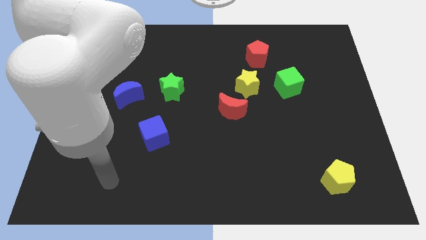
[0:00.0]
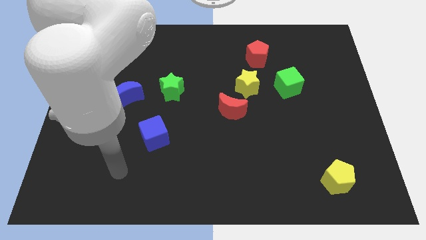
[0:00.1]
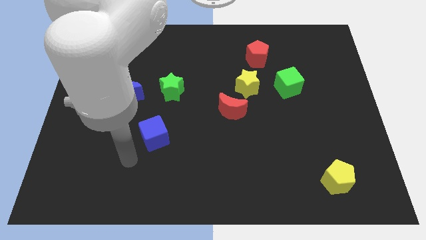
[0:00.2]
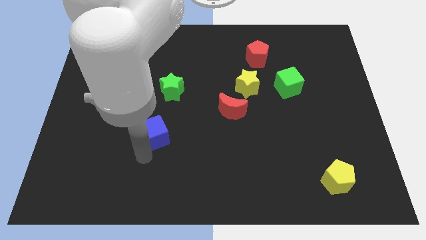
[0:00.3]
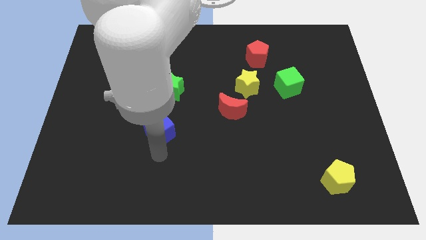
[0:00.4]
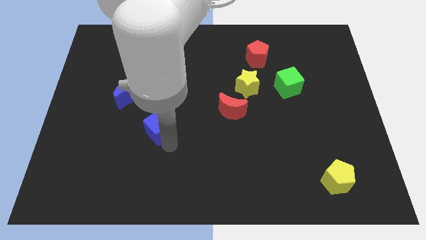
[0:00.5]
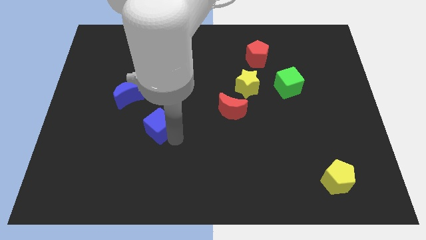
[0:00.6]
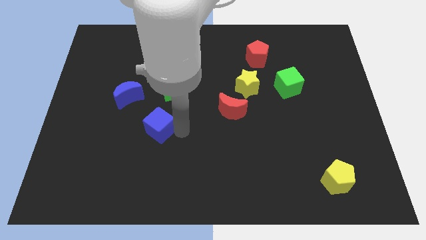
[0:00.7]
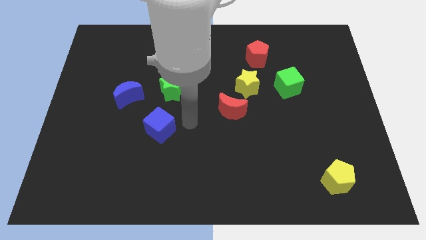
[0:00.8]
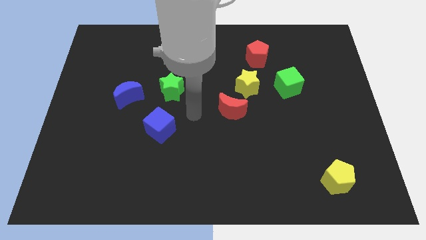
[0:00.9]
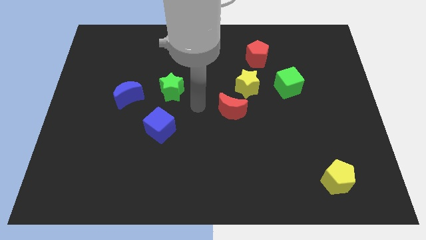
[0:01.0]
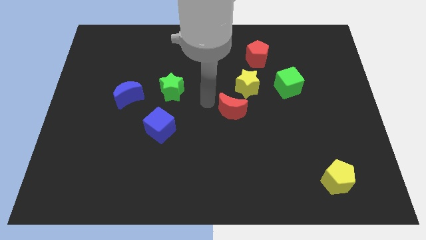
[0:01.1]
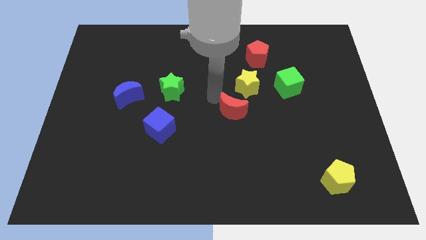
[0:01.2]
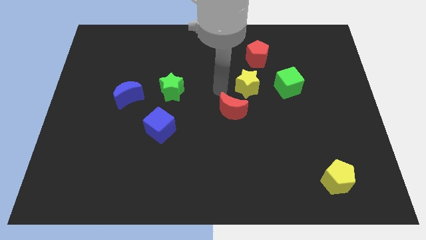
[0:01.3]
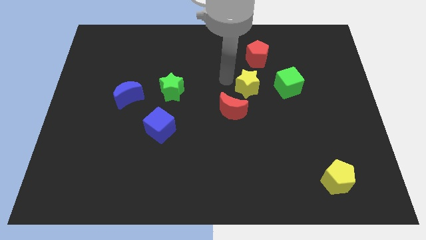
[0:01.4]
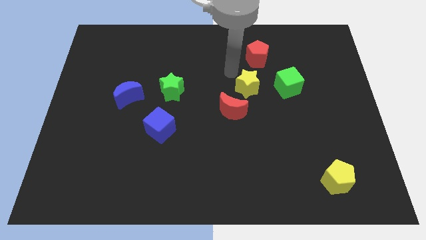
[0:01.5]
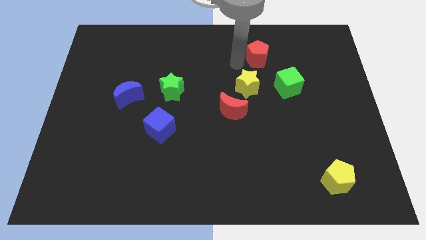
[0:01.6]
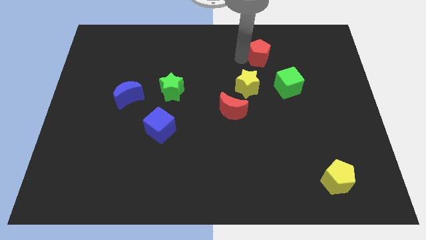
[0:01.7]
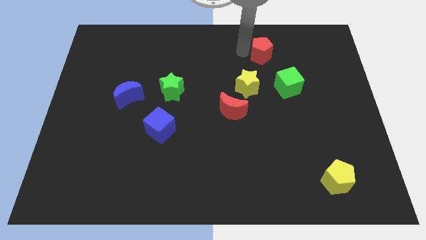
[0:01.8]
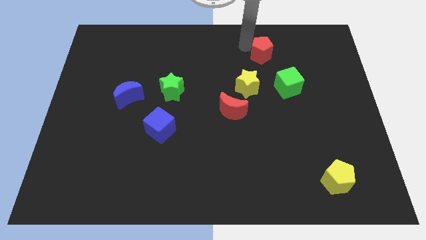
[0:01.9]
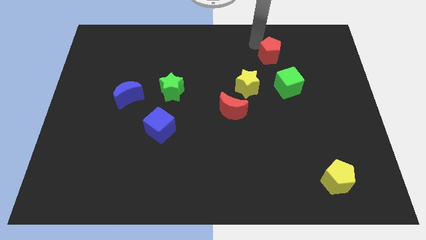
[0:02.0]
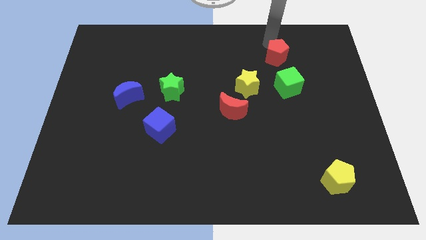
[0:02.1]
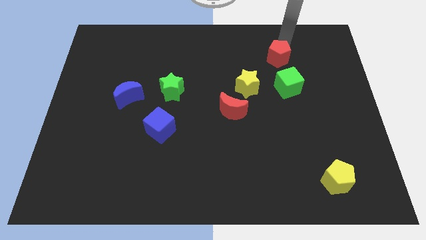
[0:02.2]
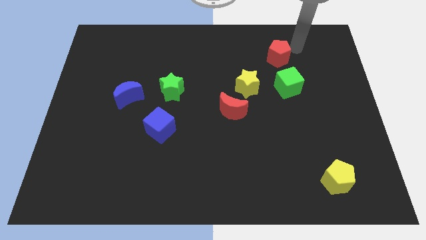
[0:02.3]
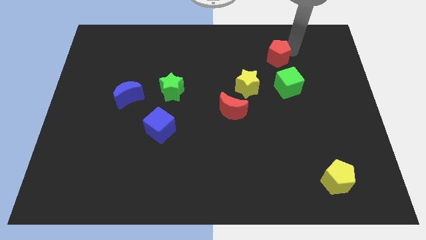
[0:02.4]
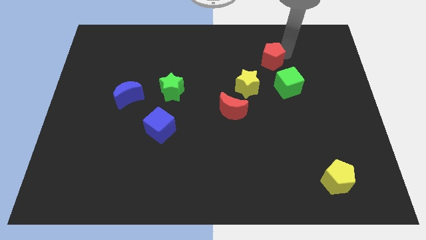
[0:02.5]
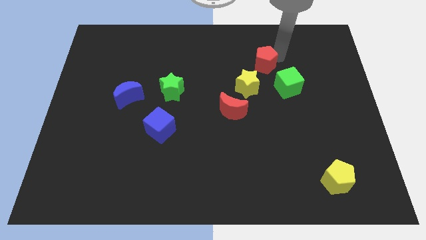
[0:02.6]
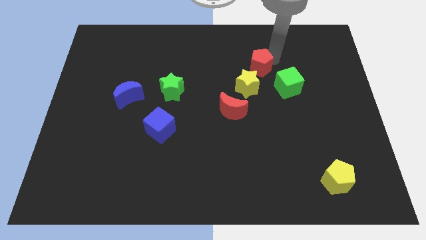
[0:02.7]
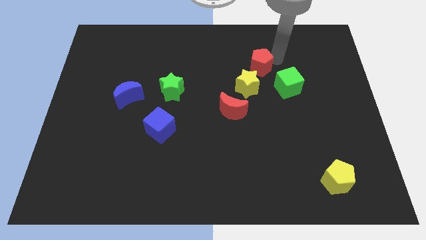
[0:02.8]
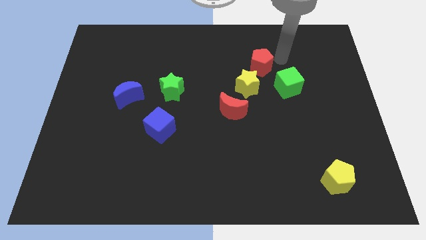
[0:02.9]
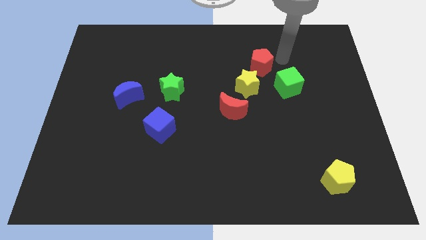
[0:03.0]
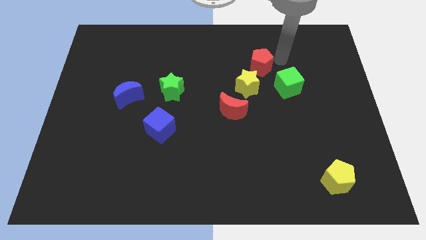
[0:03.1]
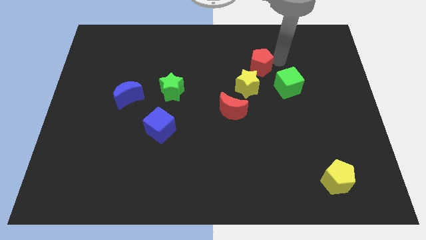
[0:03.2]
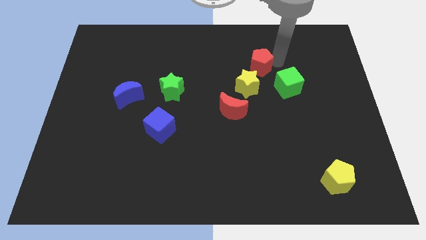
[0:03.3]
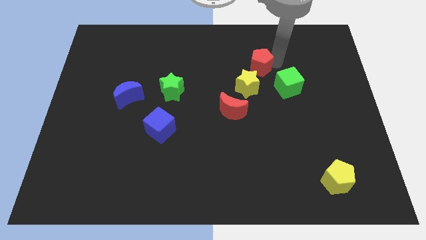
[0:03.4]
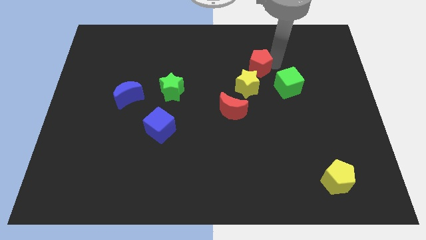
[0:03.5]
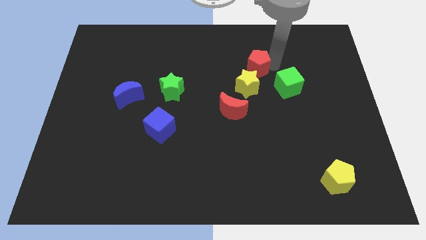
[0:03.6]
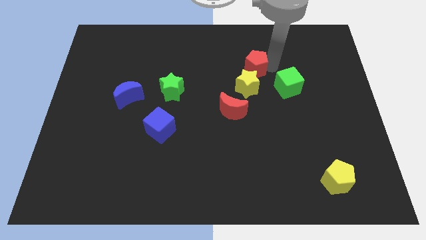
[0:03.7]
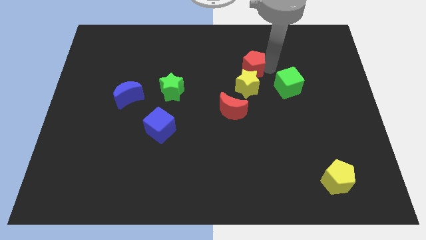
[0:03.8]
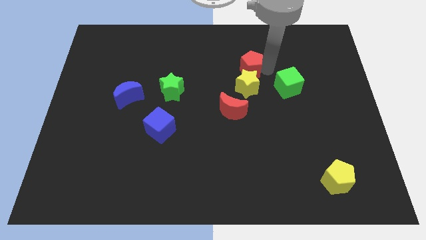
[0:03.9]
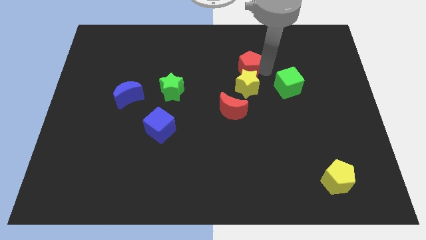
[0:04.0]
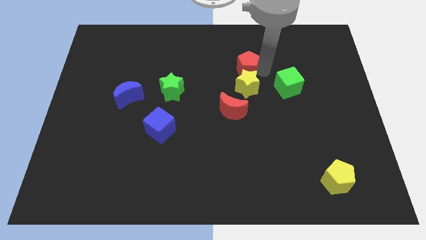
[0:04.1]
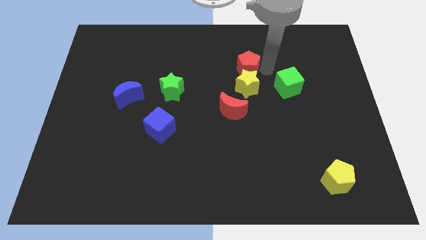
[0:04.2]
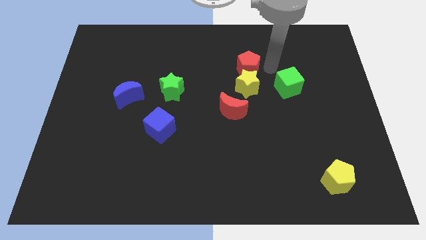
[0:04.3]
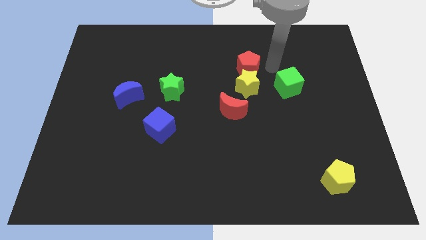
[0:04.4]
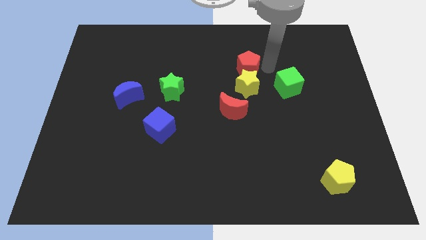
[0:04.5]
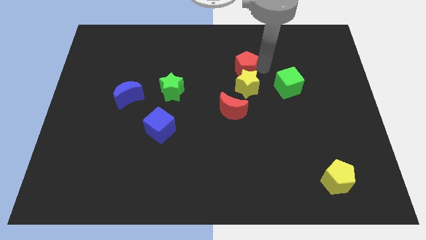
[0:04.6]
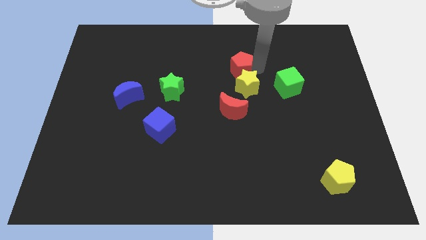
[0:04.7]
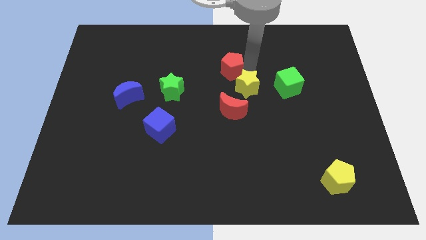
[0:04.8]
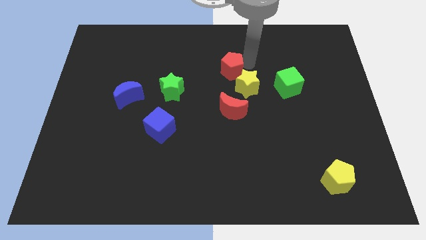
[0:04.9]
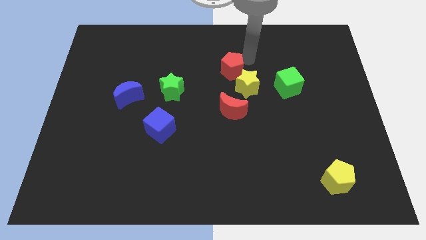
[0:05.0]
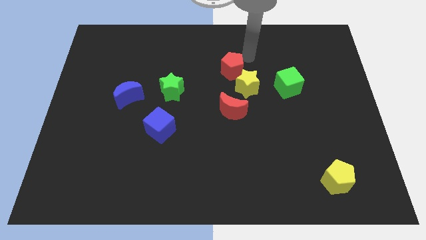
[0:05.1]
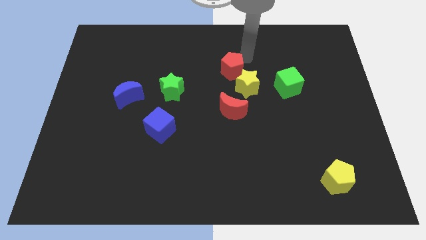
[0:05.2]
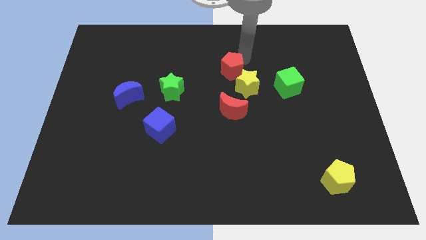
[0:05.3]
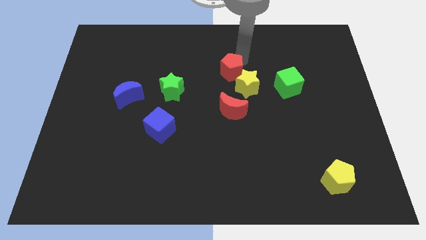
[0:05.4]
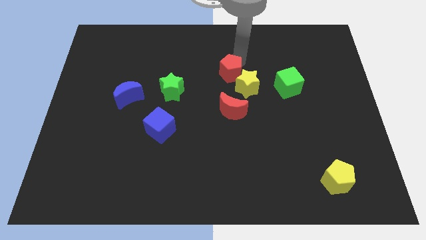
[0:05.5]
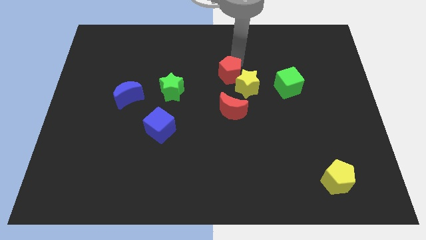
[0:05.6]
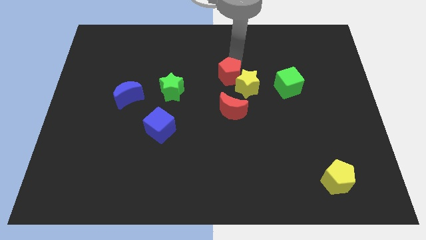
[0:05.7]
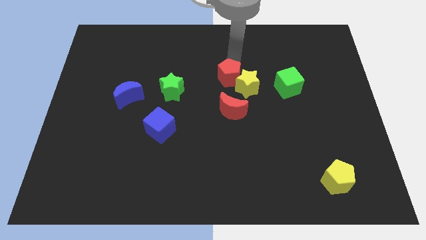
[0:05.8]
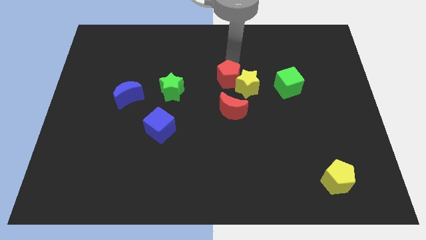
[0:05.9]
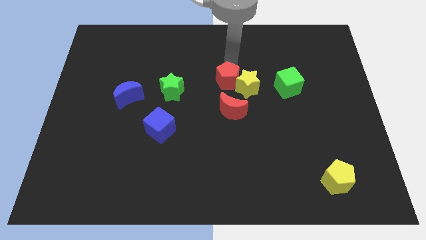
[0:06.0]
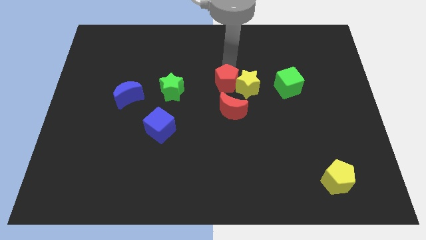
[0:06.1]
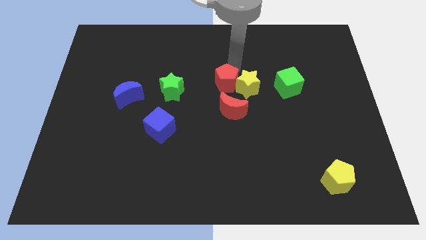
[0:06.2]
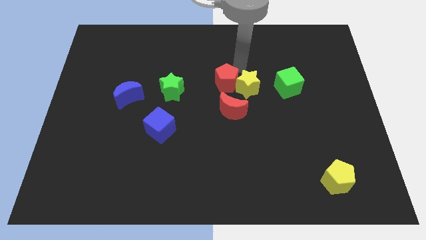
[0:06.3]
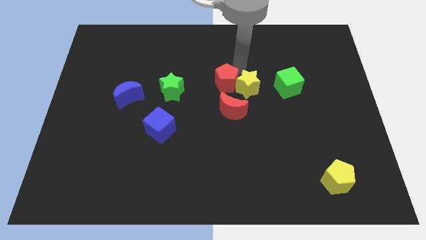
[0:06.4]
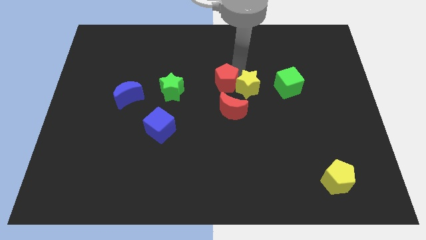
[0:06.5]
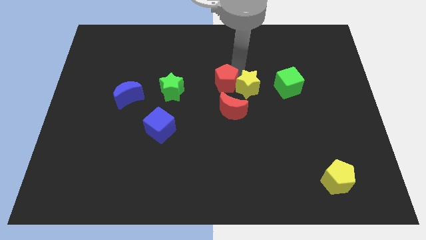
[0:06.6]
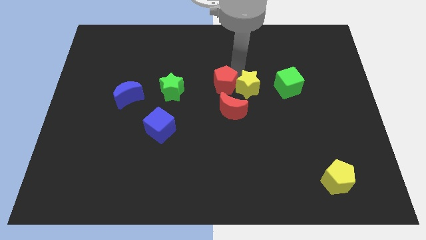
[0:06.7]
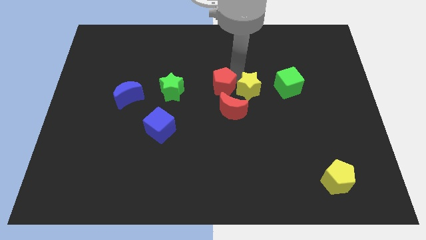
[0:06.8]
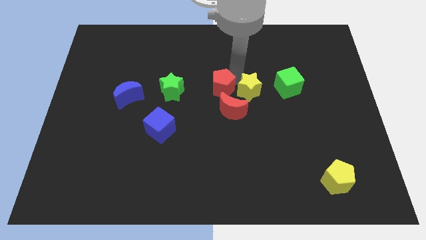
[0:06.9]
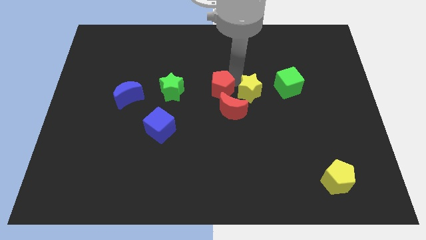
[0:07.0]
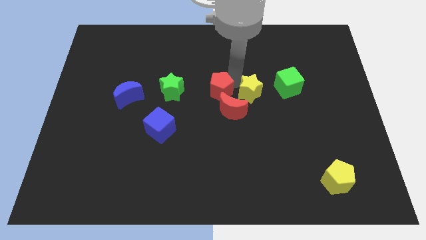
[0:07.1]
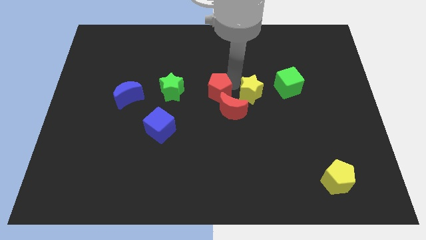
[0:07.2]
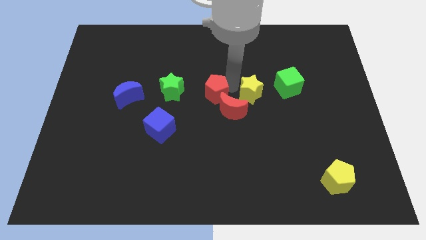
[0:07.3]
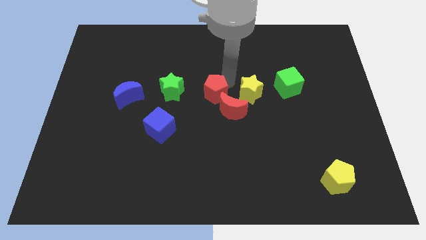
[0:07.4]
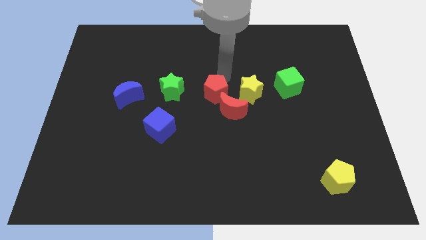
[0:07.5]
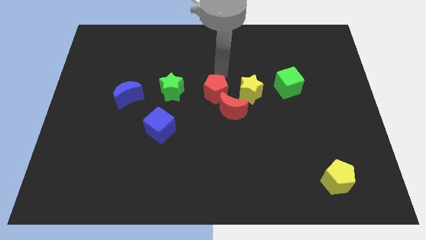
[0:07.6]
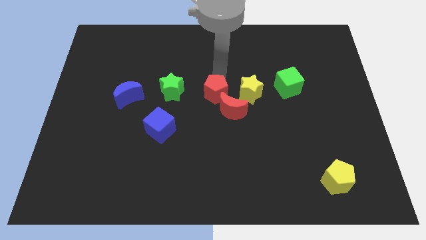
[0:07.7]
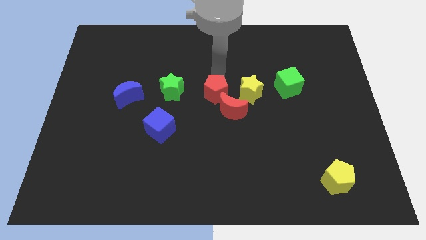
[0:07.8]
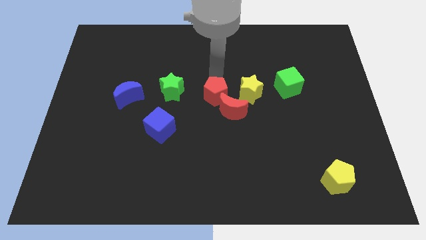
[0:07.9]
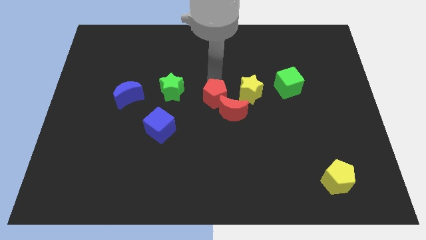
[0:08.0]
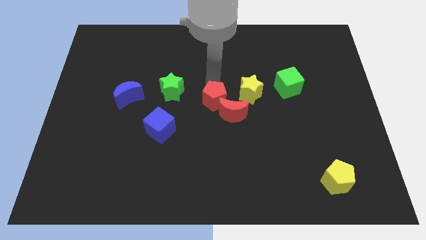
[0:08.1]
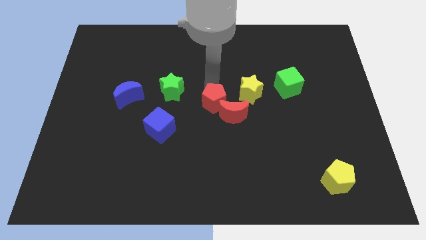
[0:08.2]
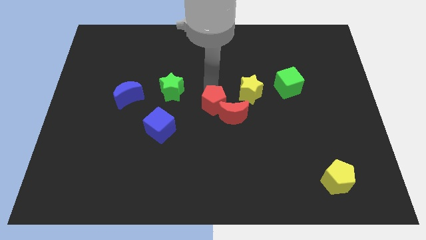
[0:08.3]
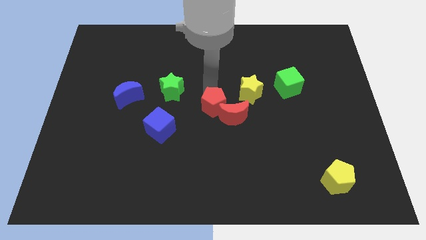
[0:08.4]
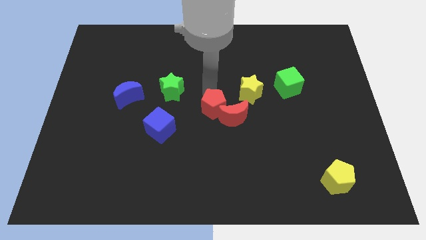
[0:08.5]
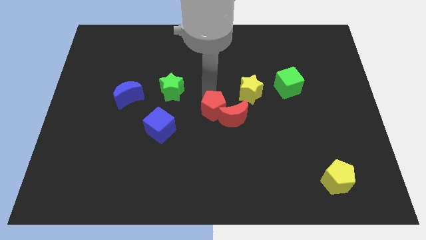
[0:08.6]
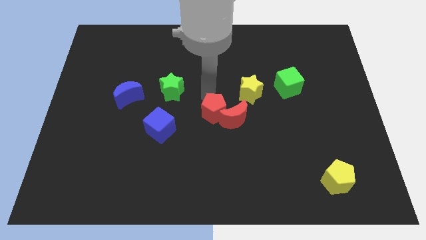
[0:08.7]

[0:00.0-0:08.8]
push the red pentagon just right of the blue cube

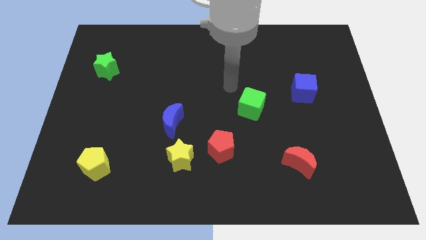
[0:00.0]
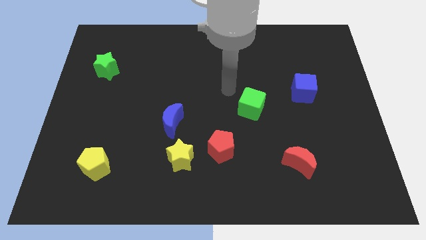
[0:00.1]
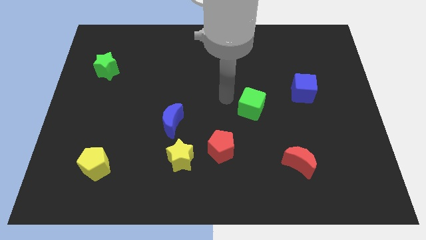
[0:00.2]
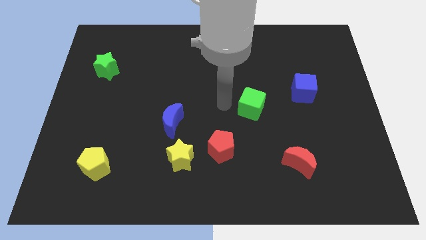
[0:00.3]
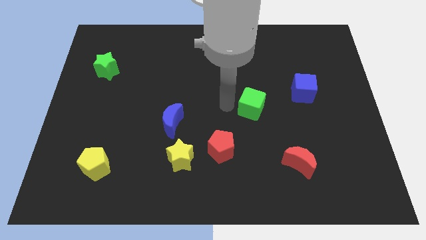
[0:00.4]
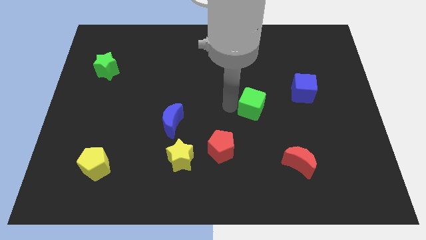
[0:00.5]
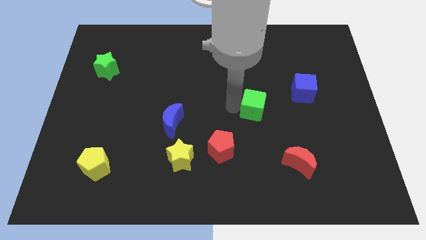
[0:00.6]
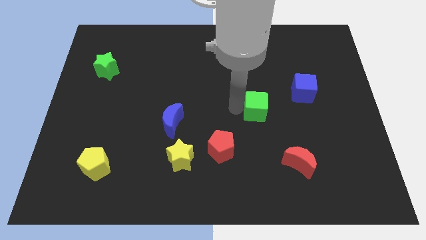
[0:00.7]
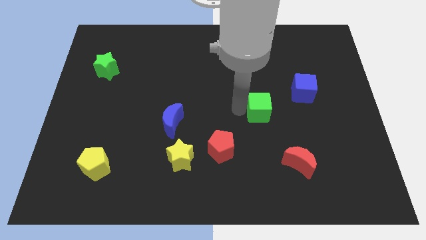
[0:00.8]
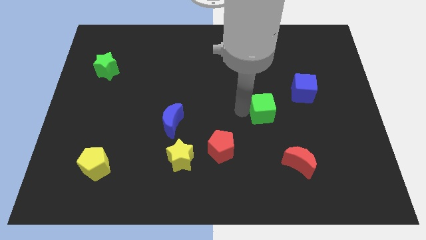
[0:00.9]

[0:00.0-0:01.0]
put the green cube to the bottom left side of the blue cube
